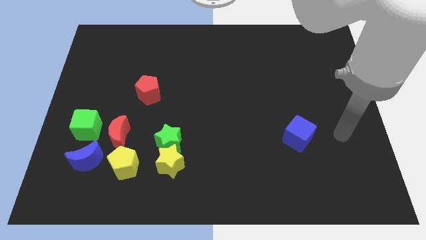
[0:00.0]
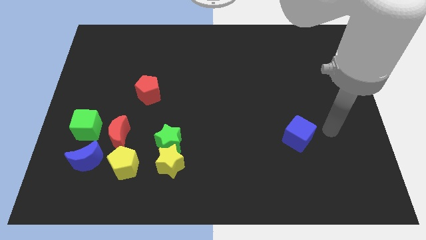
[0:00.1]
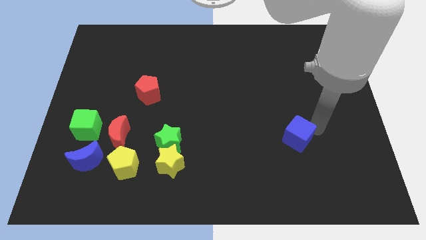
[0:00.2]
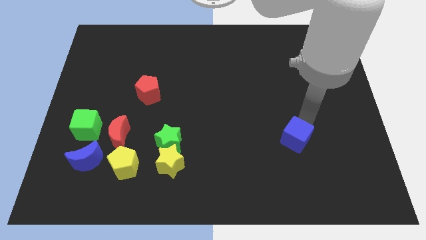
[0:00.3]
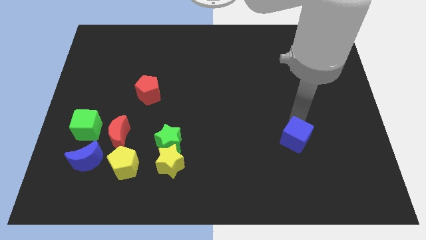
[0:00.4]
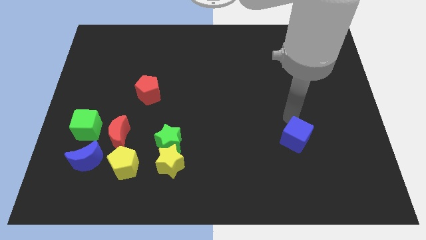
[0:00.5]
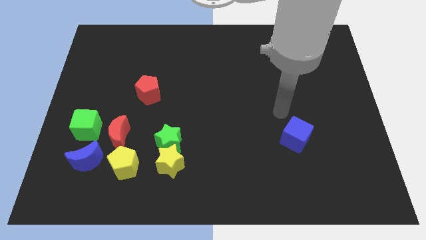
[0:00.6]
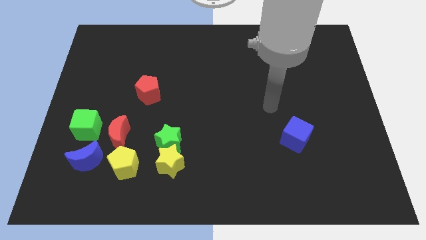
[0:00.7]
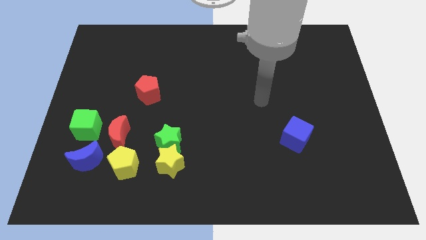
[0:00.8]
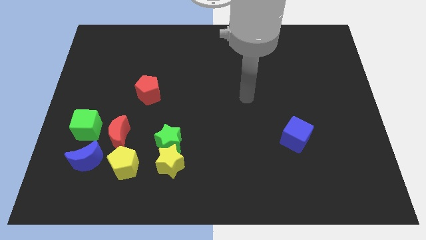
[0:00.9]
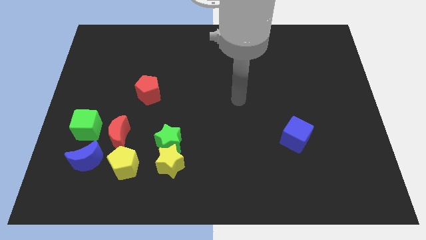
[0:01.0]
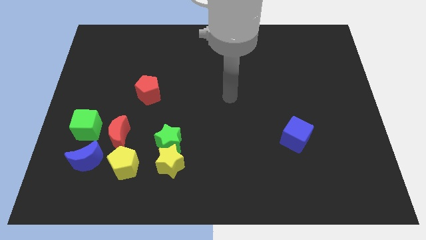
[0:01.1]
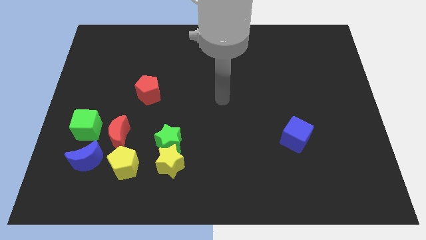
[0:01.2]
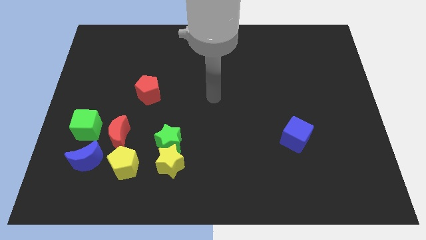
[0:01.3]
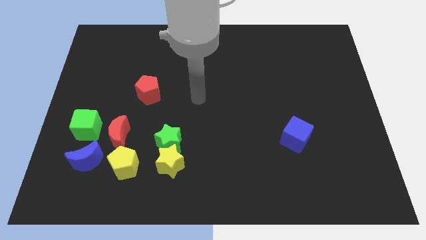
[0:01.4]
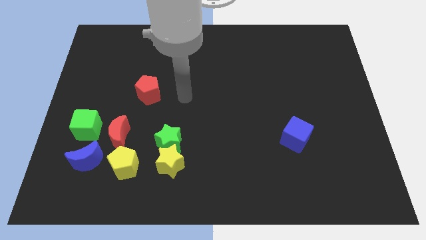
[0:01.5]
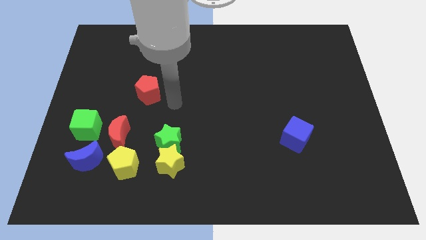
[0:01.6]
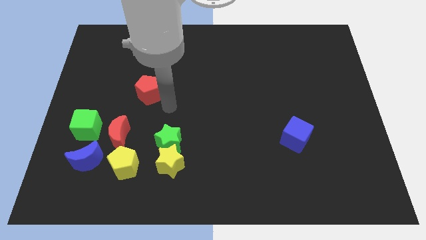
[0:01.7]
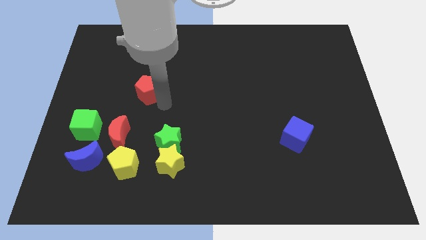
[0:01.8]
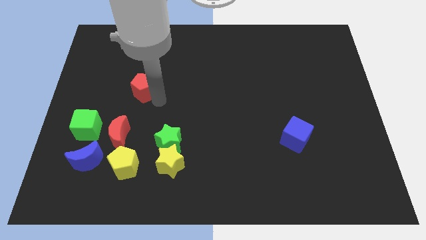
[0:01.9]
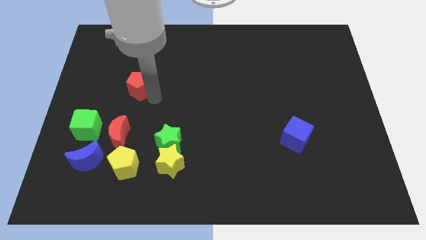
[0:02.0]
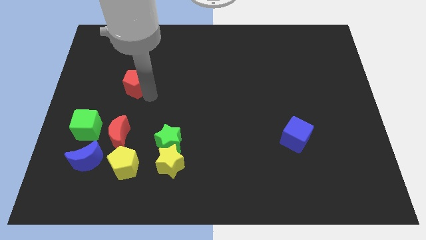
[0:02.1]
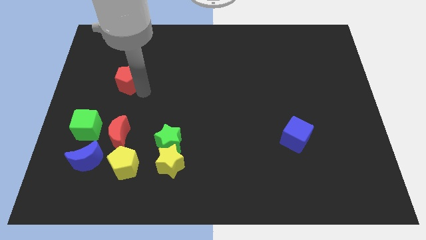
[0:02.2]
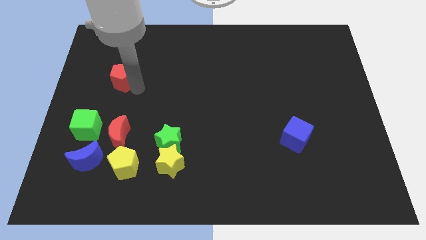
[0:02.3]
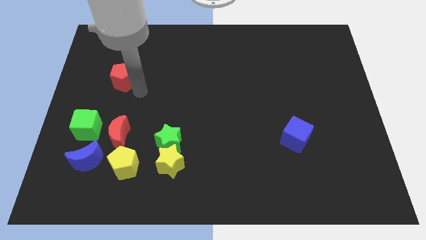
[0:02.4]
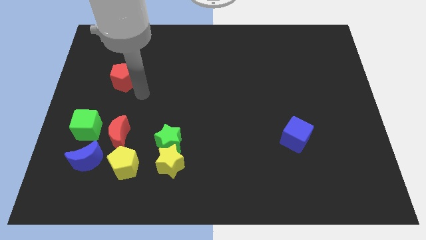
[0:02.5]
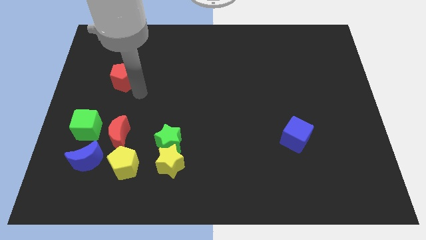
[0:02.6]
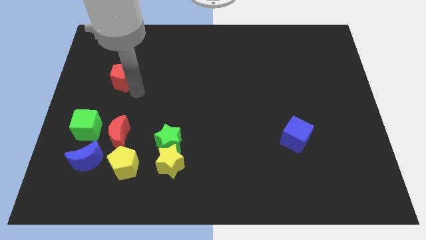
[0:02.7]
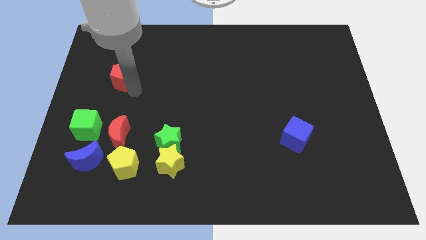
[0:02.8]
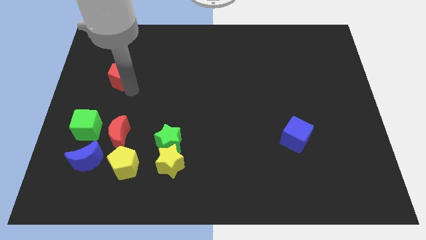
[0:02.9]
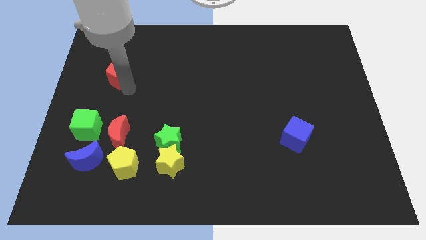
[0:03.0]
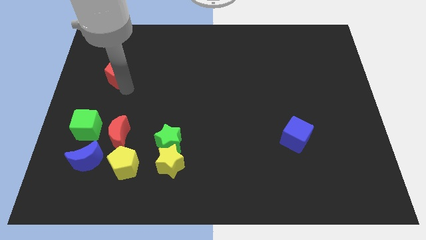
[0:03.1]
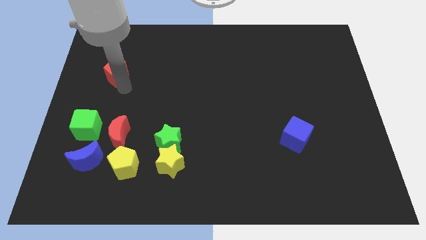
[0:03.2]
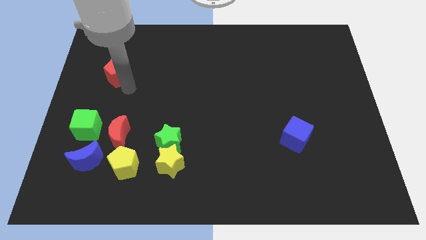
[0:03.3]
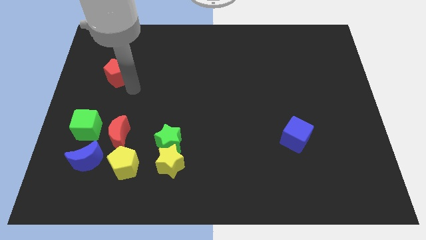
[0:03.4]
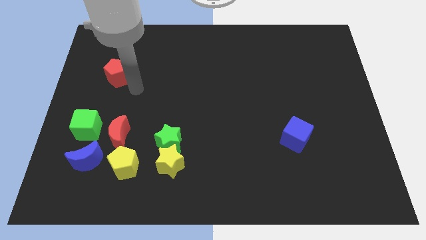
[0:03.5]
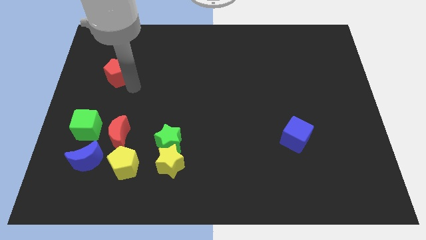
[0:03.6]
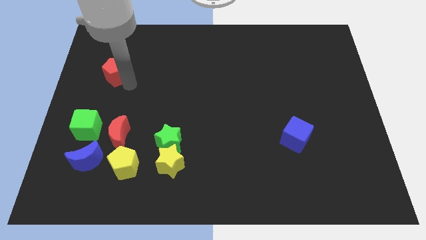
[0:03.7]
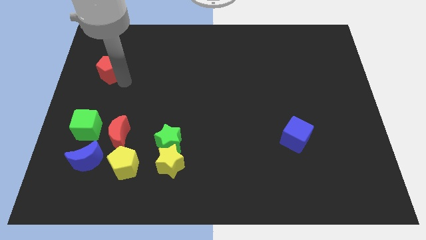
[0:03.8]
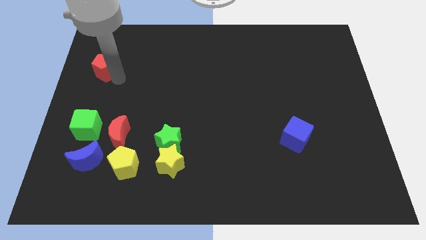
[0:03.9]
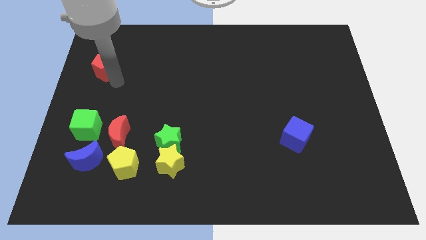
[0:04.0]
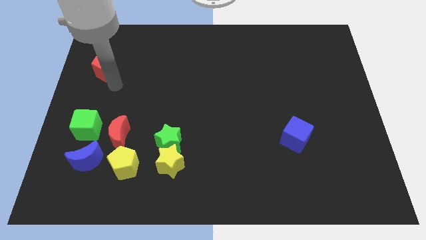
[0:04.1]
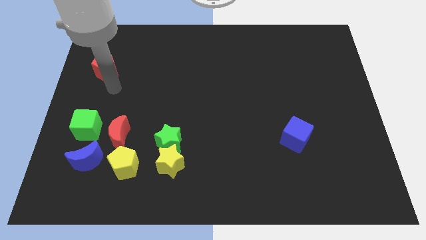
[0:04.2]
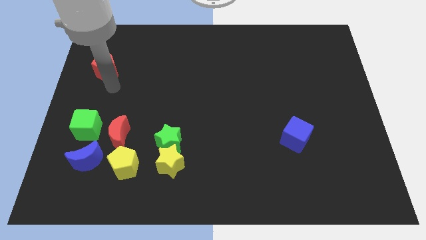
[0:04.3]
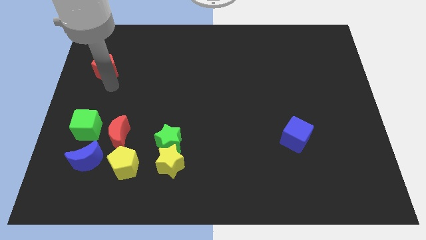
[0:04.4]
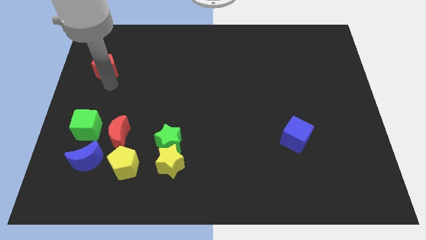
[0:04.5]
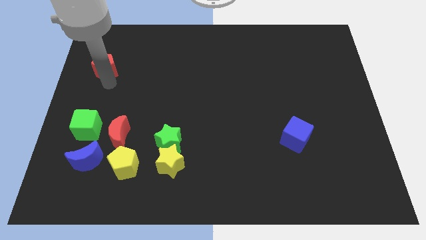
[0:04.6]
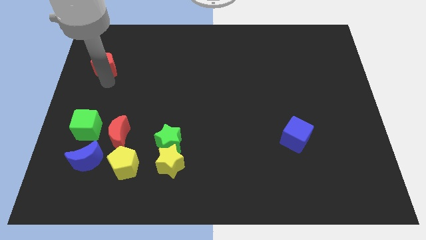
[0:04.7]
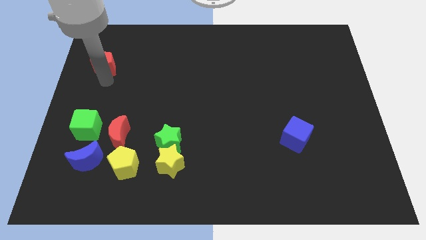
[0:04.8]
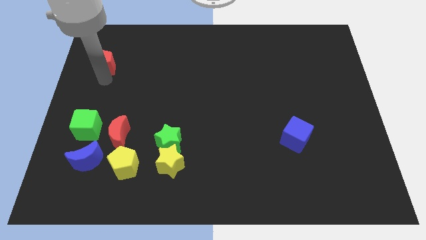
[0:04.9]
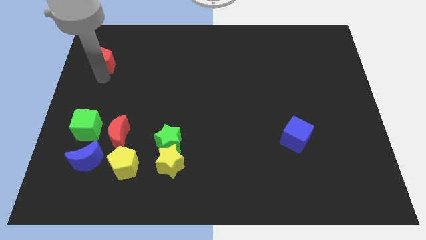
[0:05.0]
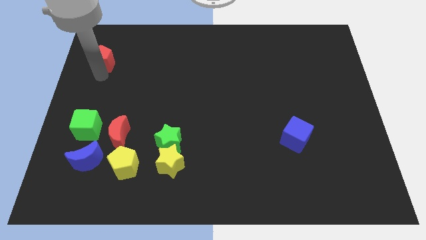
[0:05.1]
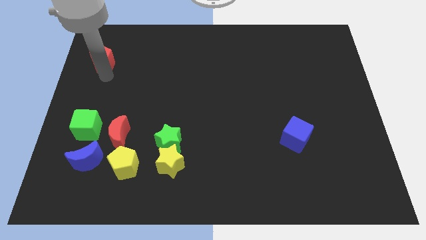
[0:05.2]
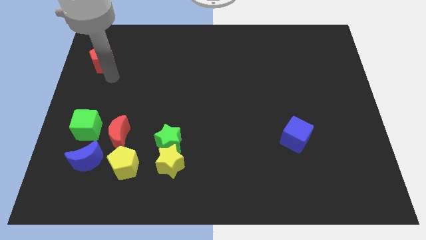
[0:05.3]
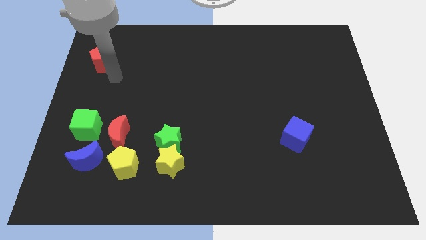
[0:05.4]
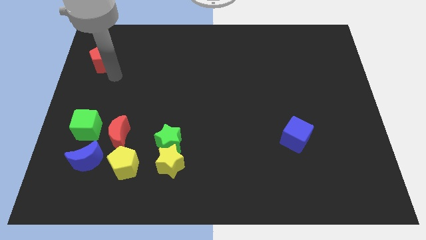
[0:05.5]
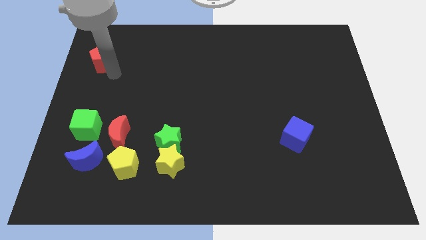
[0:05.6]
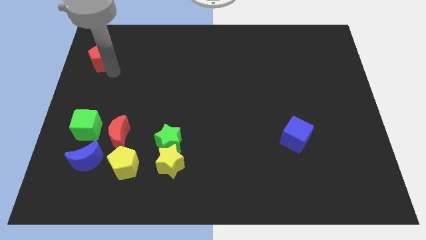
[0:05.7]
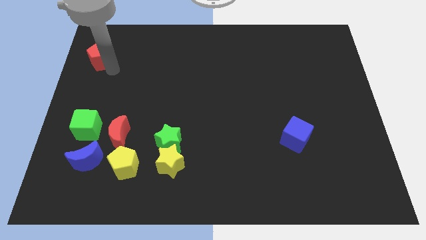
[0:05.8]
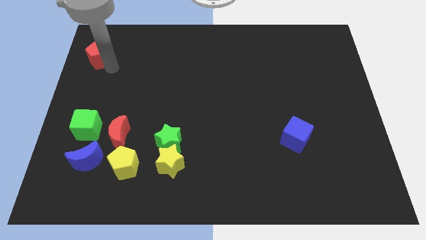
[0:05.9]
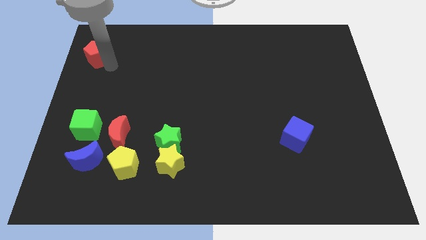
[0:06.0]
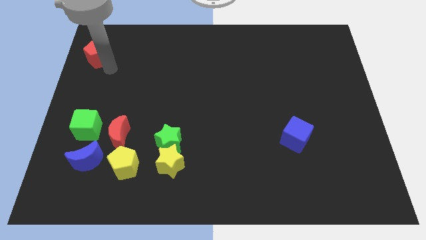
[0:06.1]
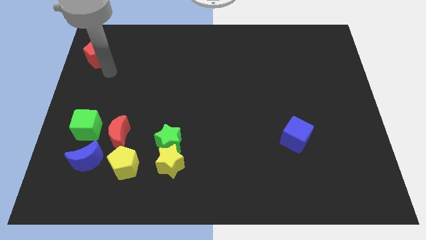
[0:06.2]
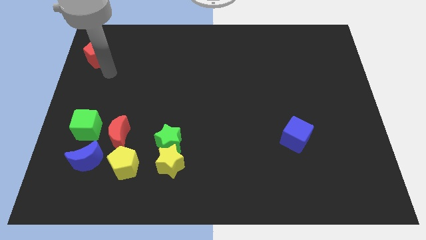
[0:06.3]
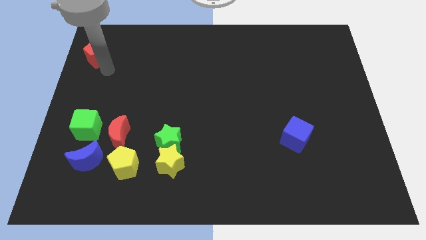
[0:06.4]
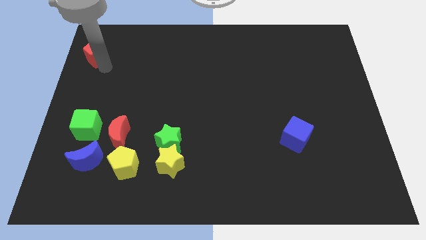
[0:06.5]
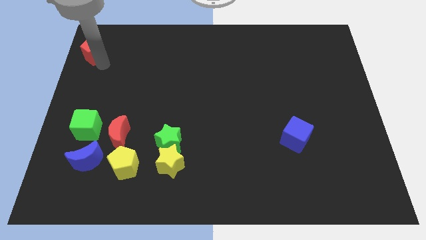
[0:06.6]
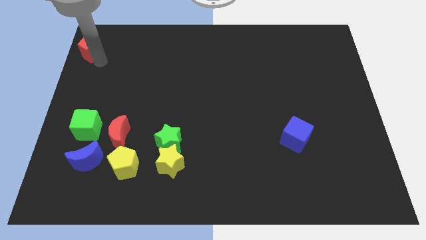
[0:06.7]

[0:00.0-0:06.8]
move the red pentagon to the top left of the board
